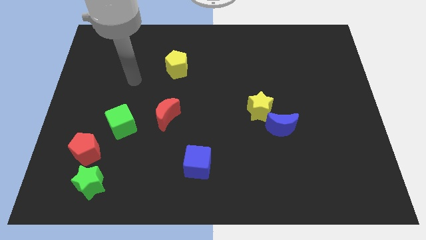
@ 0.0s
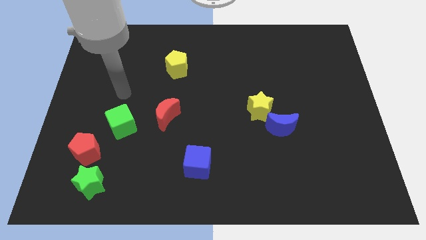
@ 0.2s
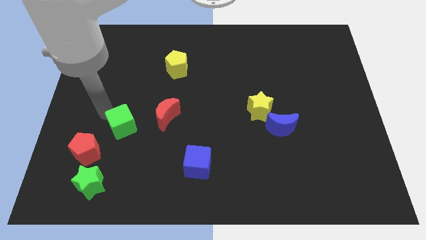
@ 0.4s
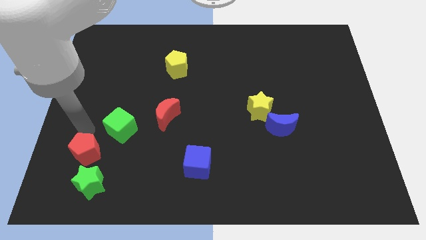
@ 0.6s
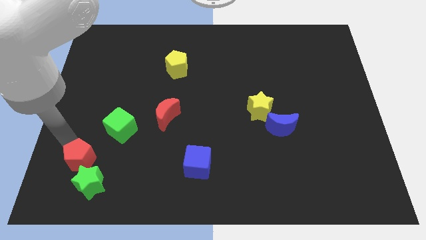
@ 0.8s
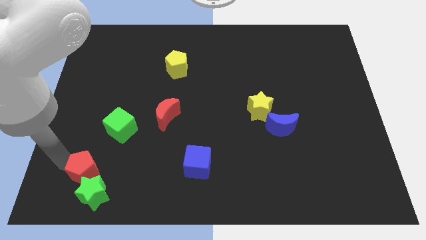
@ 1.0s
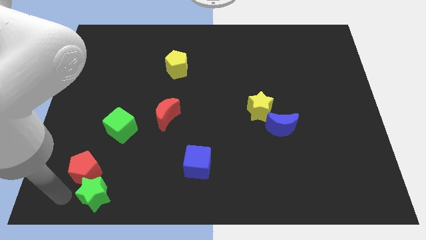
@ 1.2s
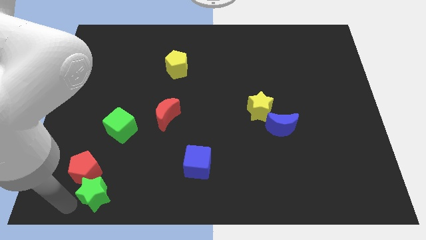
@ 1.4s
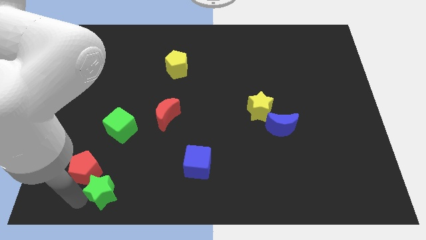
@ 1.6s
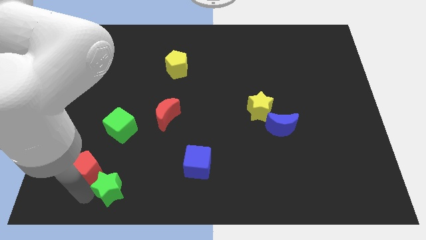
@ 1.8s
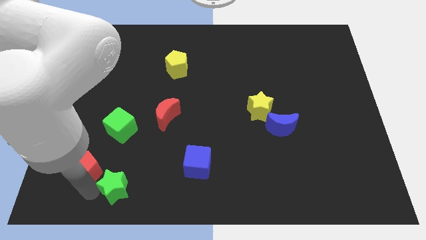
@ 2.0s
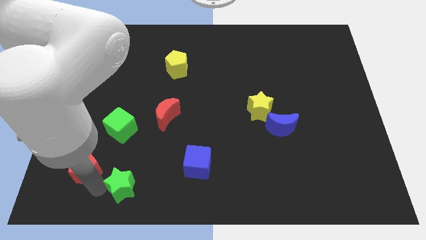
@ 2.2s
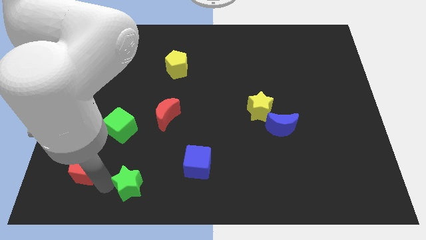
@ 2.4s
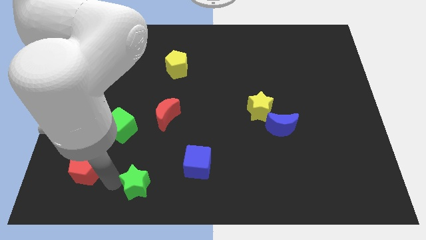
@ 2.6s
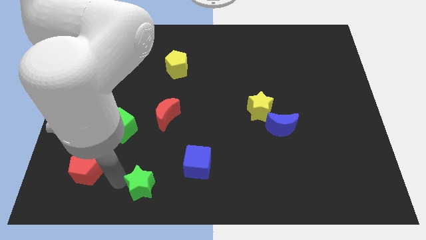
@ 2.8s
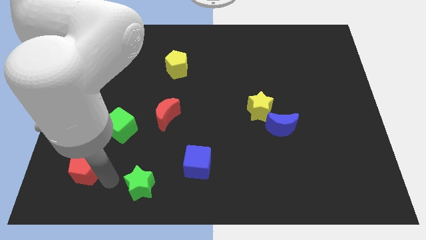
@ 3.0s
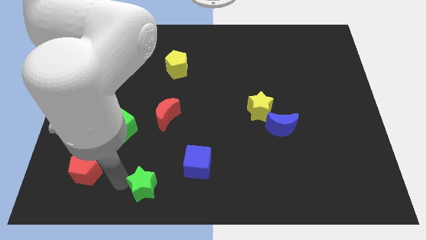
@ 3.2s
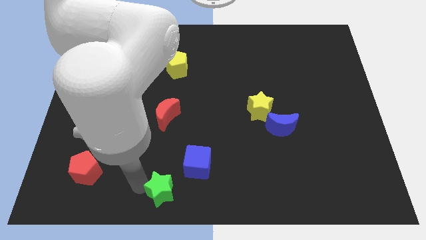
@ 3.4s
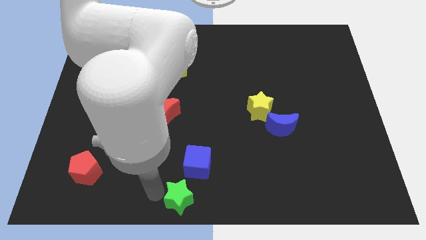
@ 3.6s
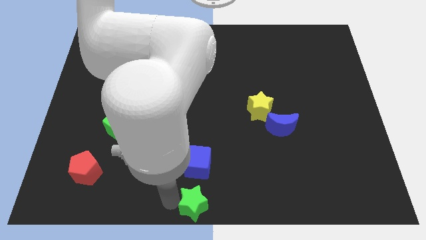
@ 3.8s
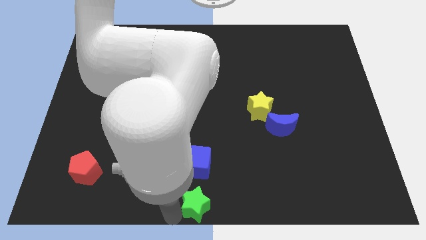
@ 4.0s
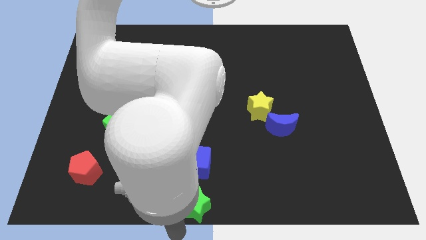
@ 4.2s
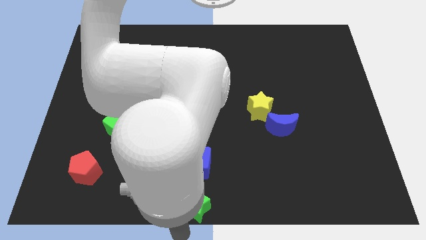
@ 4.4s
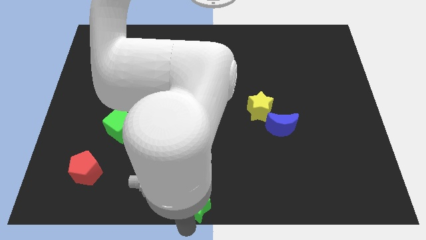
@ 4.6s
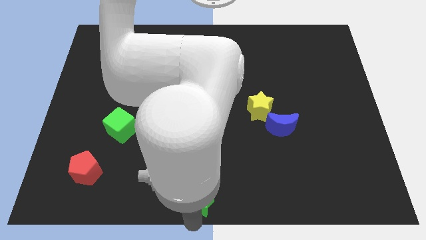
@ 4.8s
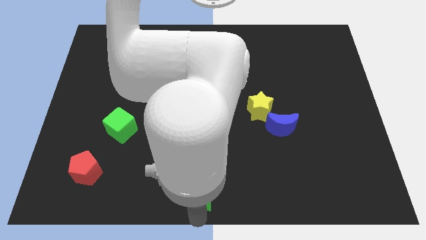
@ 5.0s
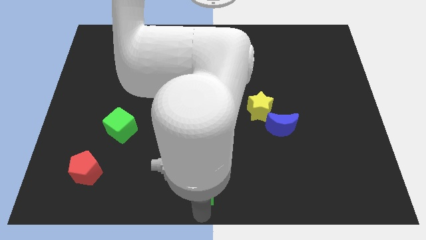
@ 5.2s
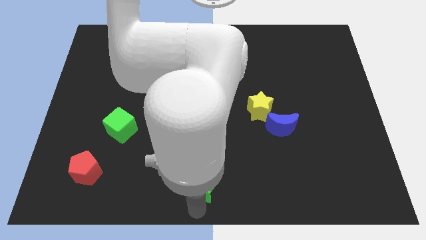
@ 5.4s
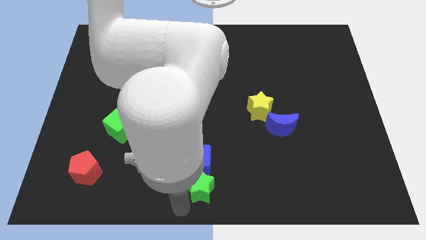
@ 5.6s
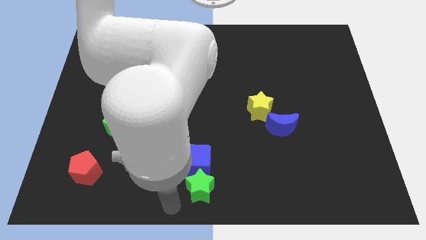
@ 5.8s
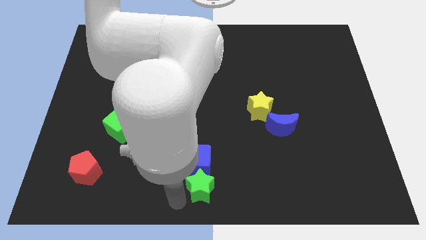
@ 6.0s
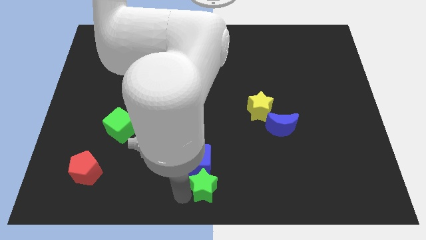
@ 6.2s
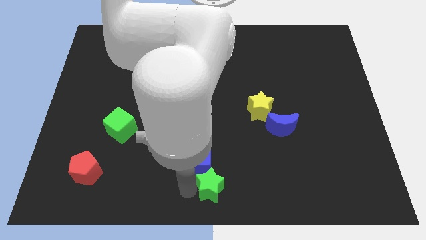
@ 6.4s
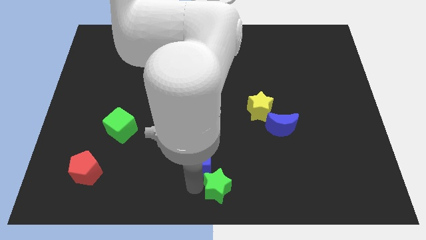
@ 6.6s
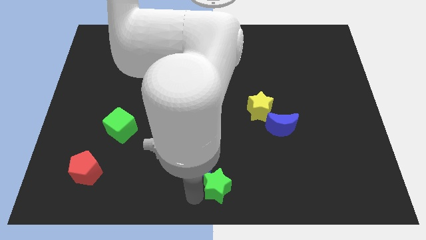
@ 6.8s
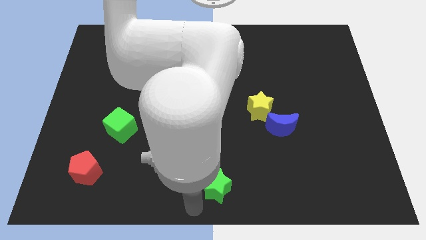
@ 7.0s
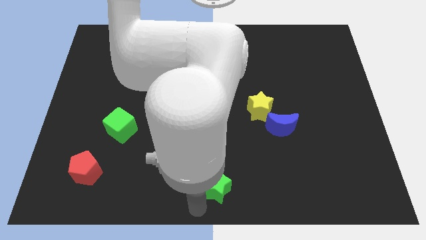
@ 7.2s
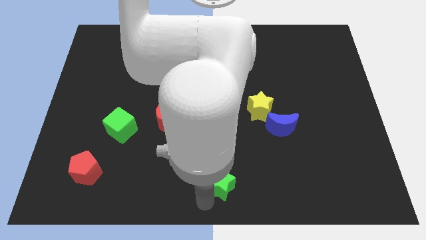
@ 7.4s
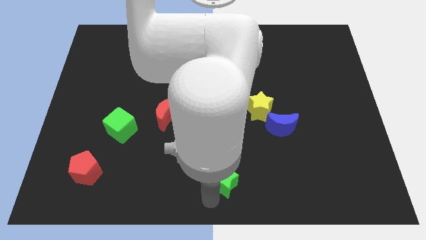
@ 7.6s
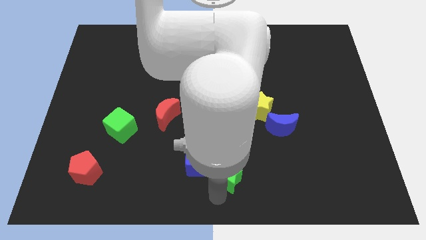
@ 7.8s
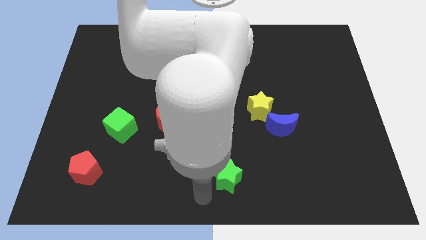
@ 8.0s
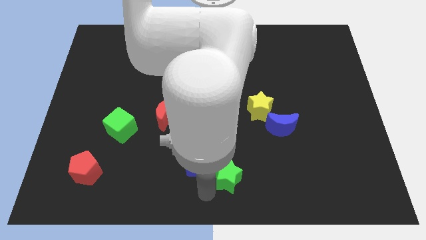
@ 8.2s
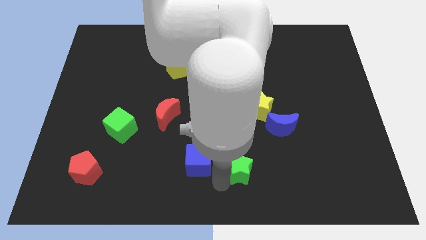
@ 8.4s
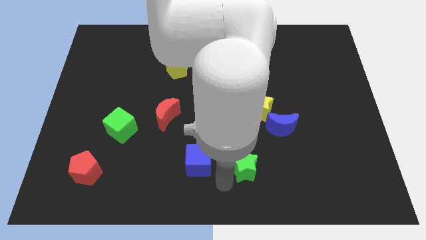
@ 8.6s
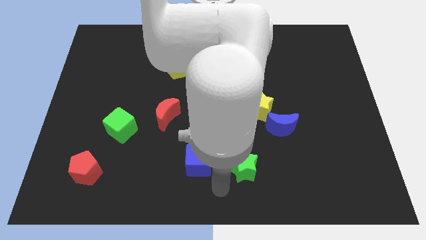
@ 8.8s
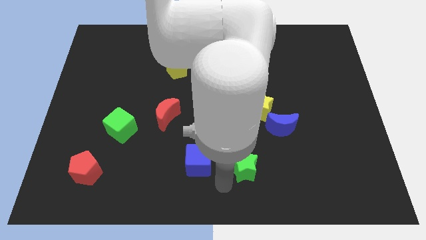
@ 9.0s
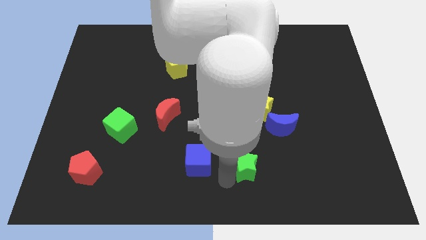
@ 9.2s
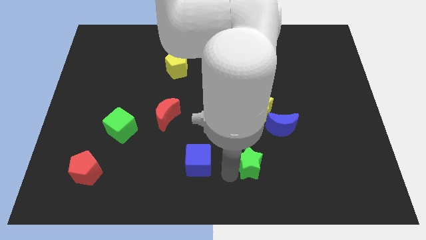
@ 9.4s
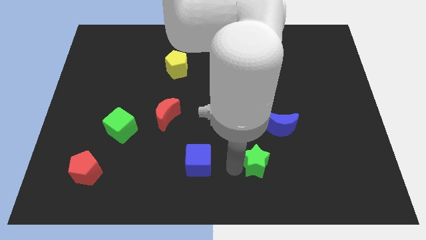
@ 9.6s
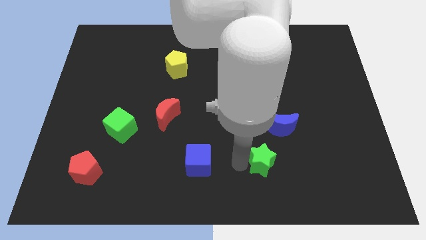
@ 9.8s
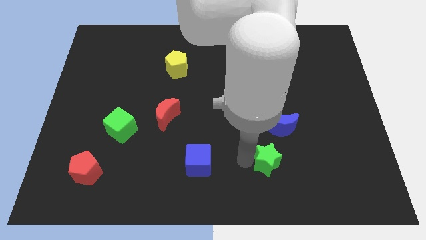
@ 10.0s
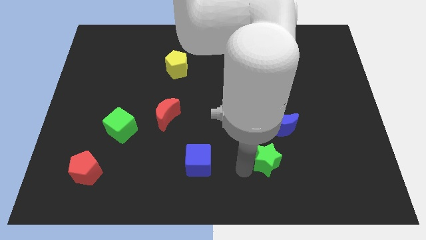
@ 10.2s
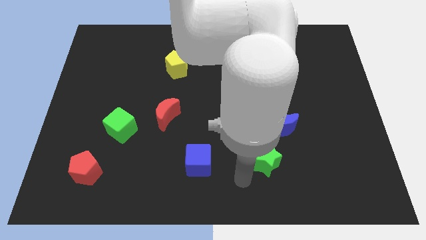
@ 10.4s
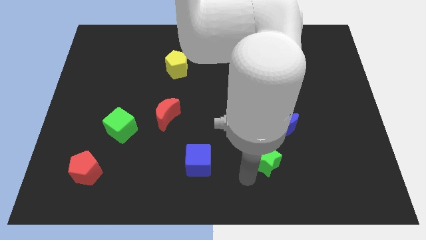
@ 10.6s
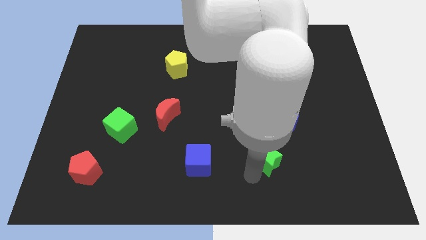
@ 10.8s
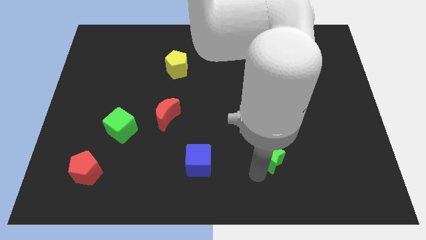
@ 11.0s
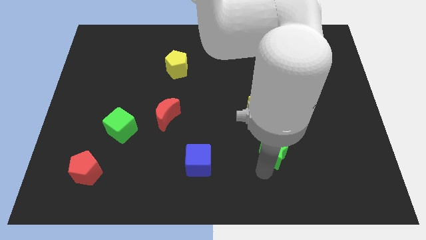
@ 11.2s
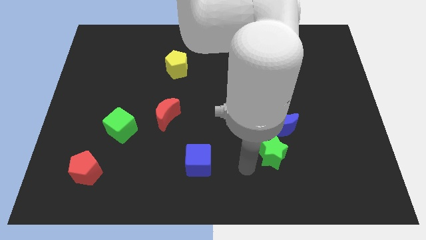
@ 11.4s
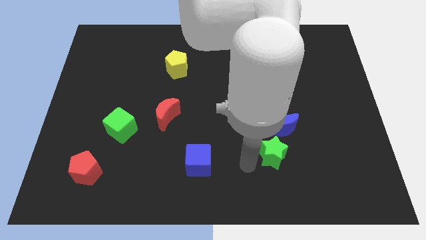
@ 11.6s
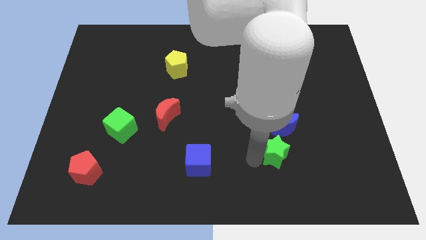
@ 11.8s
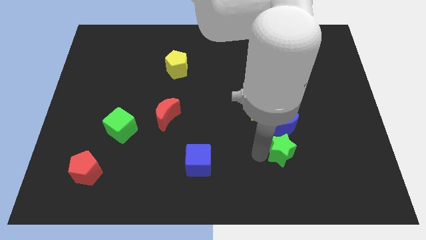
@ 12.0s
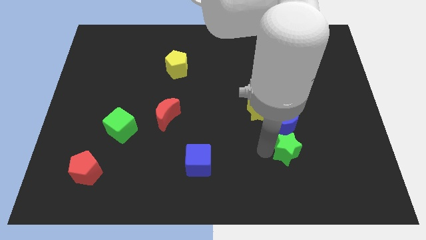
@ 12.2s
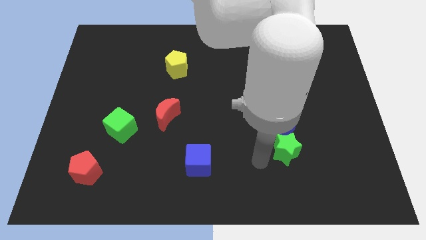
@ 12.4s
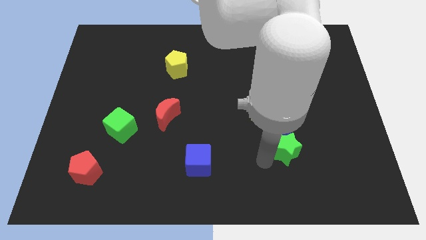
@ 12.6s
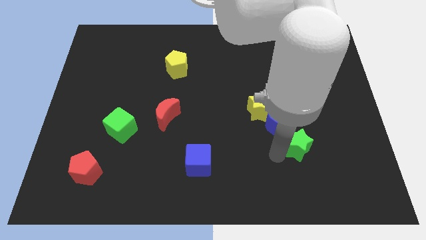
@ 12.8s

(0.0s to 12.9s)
move the green star to the bottom right side of the yellow star
